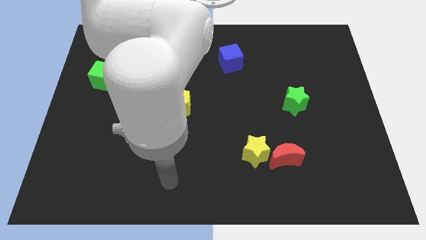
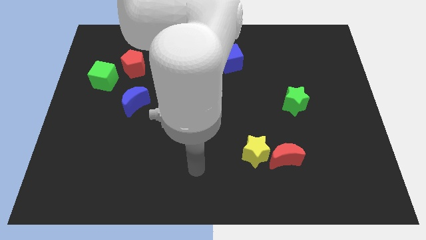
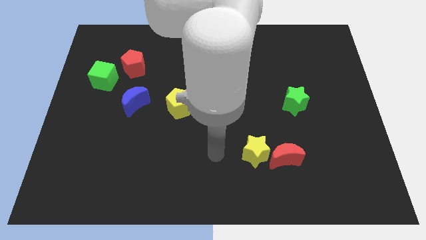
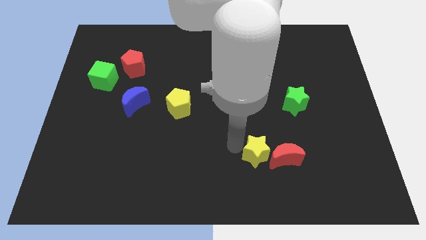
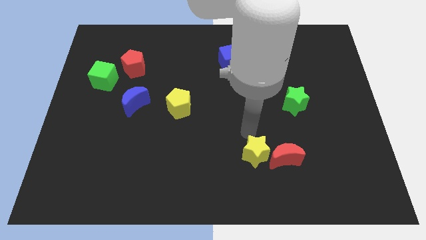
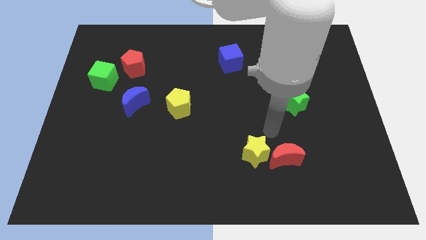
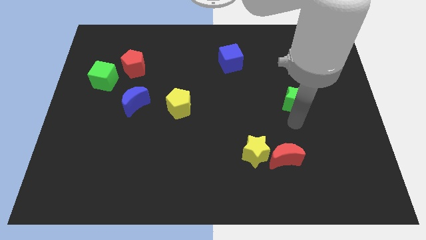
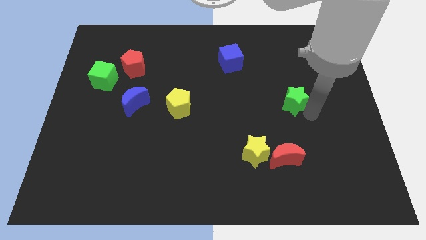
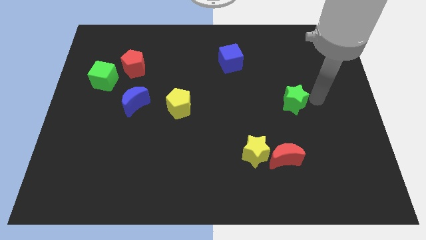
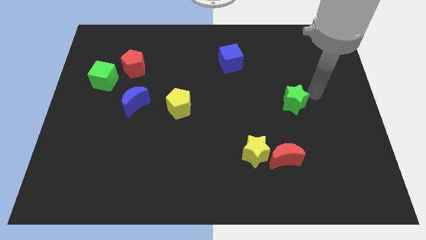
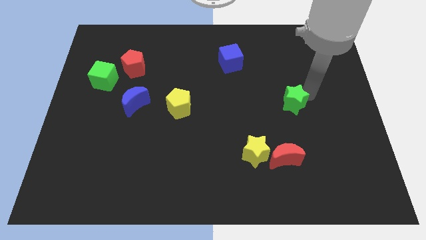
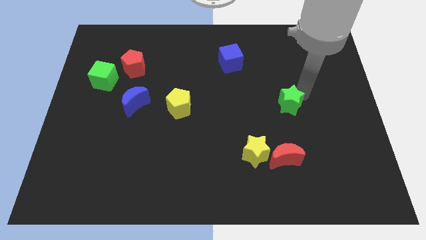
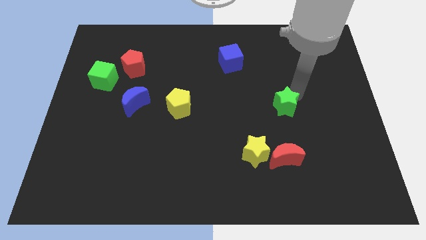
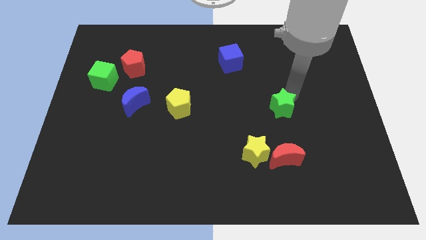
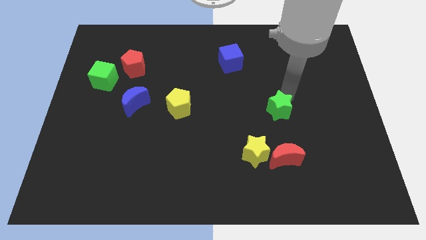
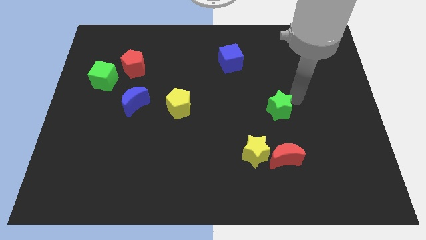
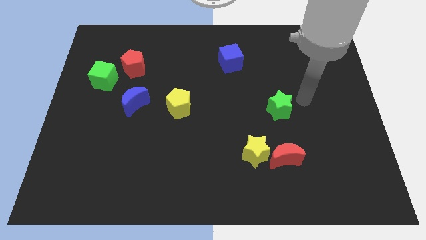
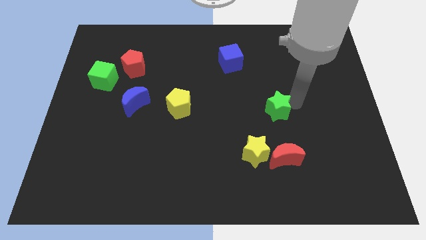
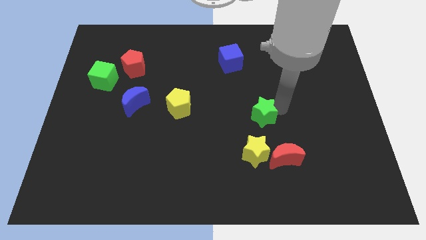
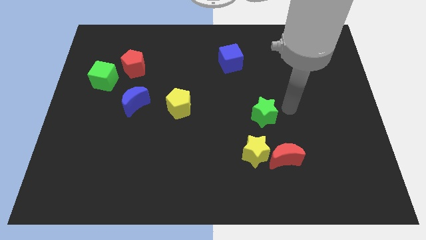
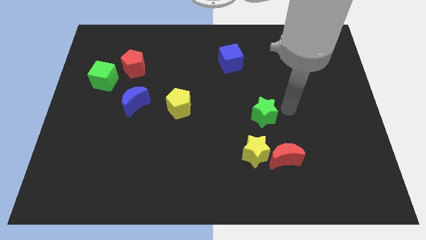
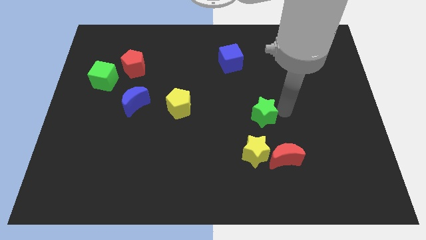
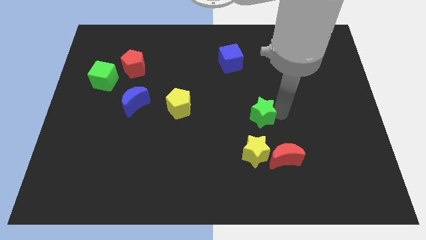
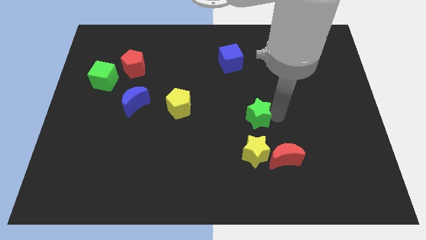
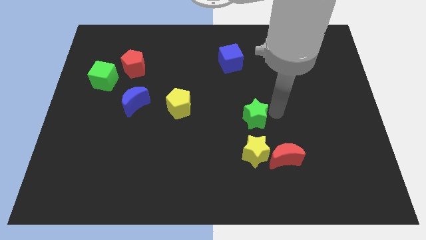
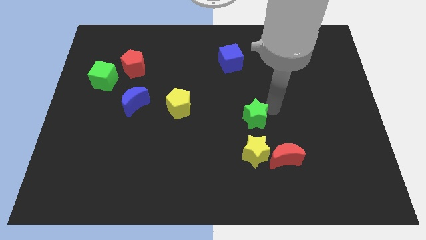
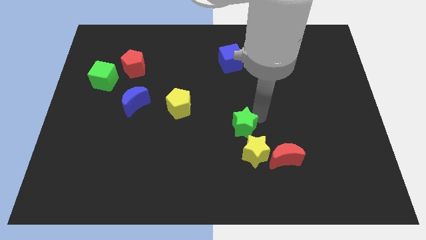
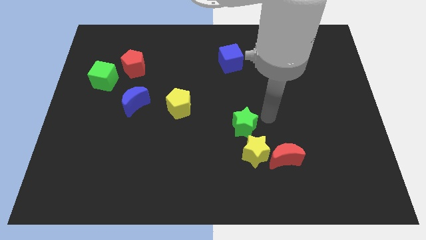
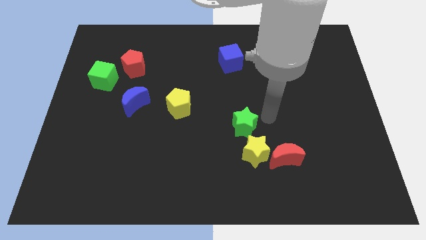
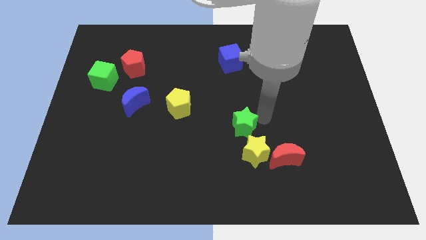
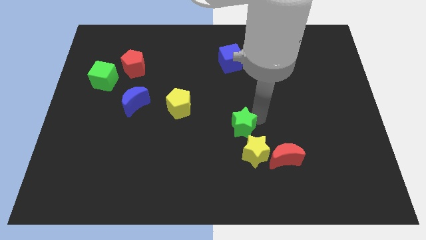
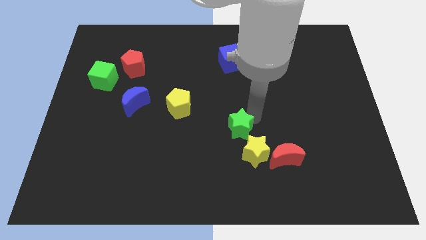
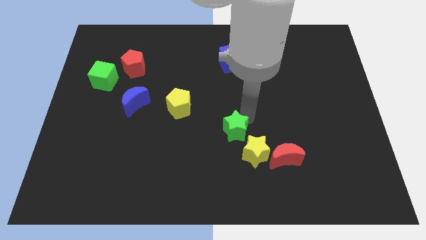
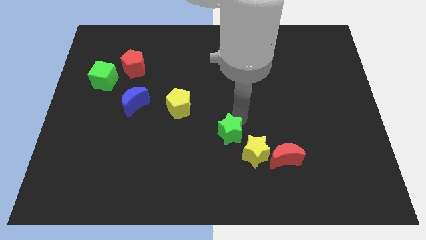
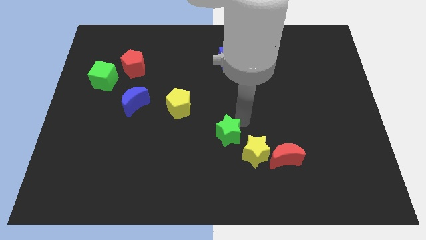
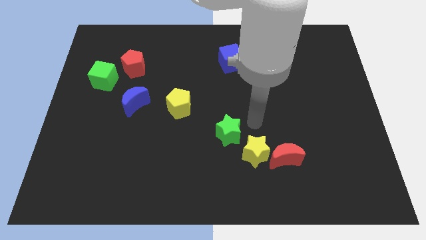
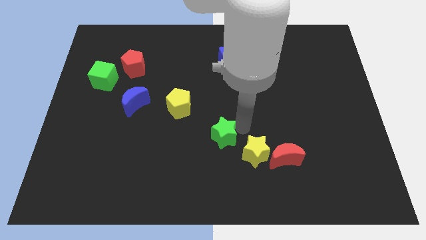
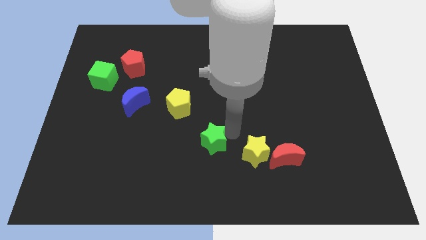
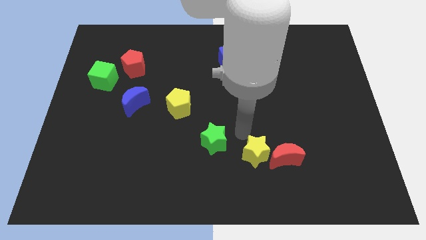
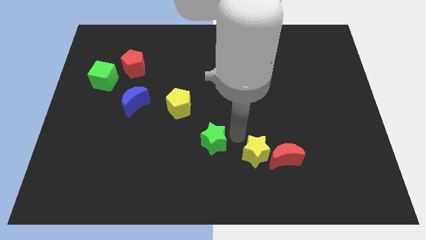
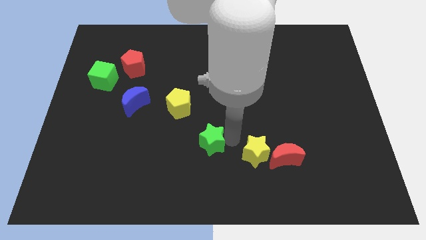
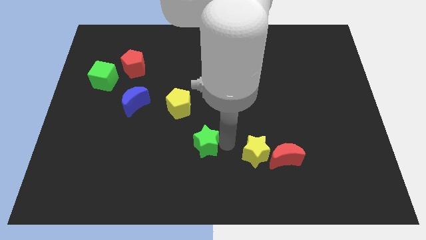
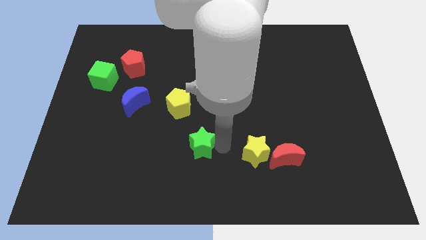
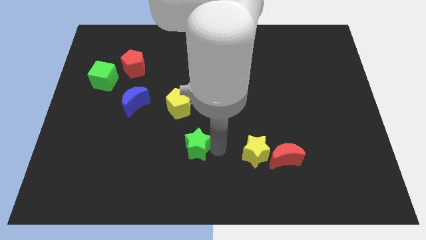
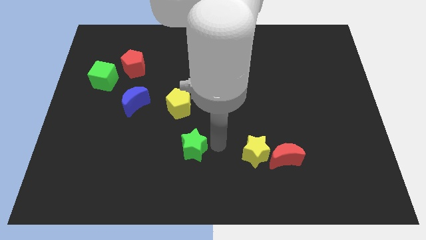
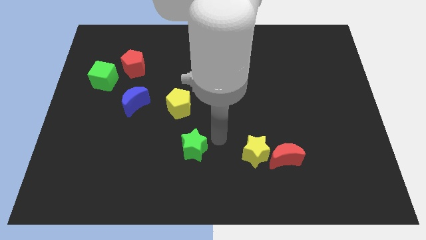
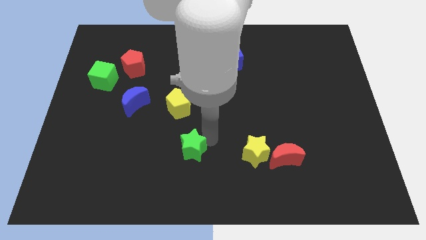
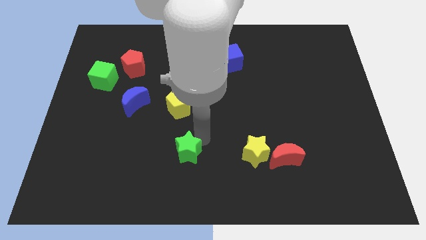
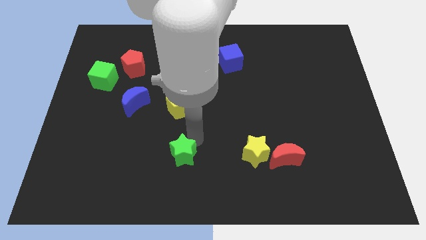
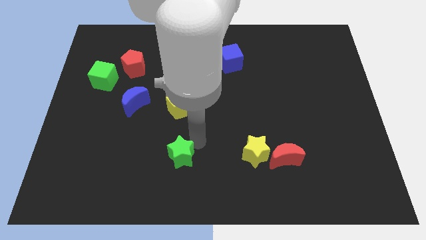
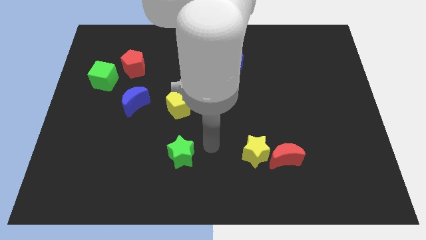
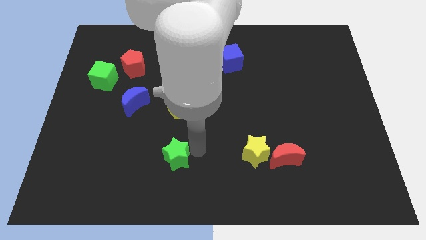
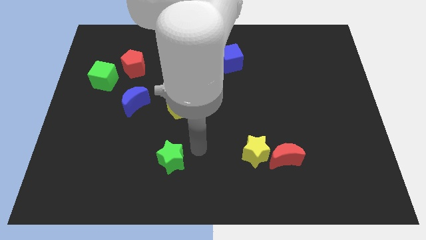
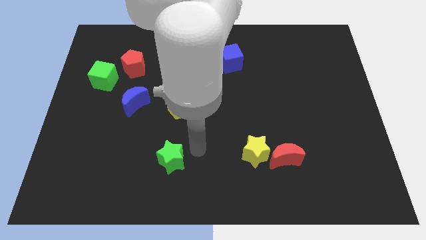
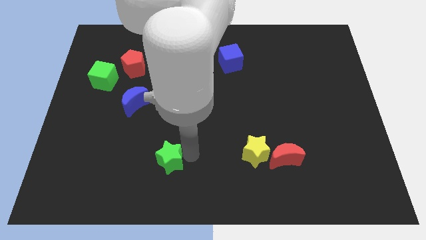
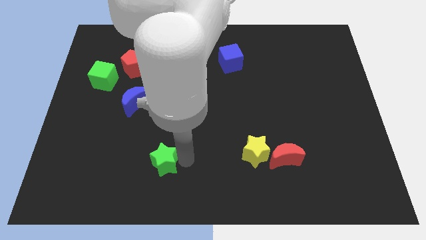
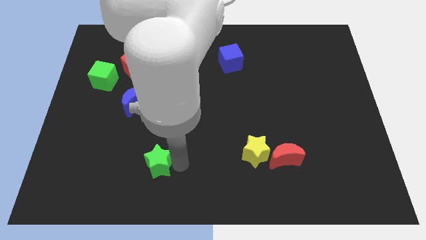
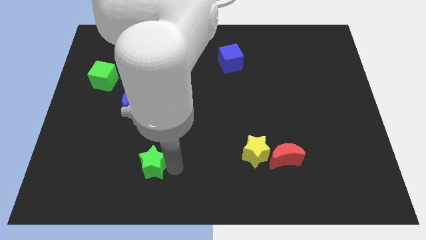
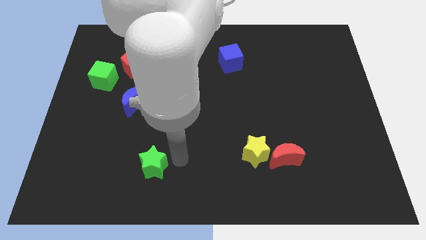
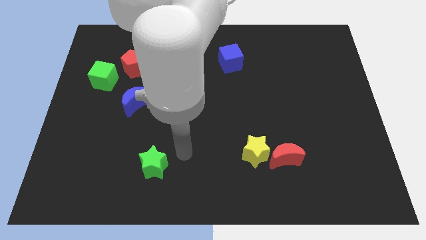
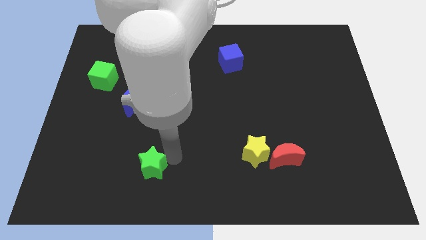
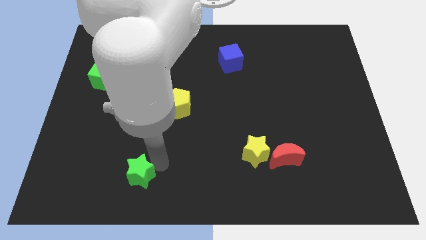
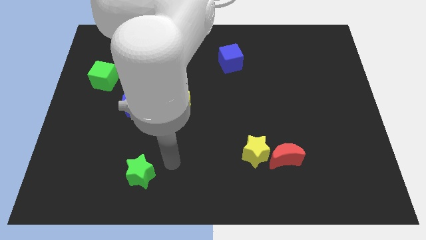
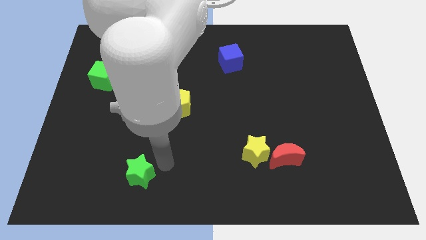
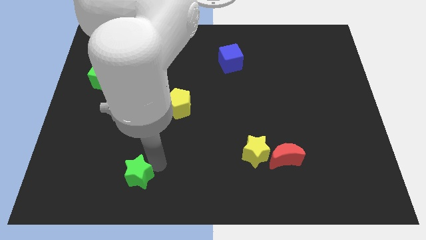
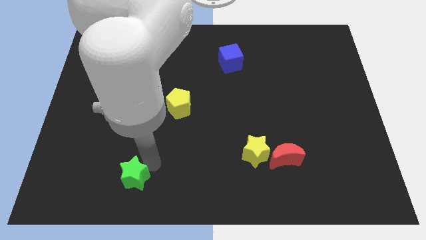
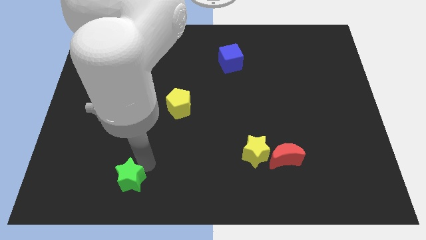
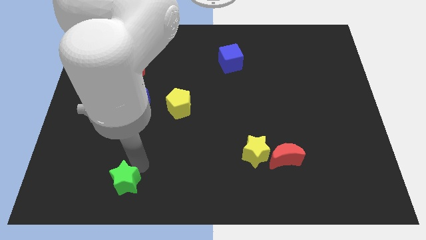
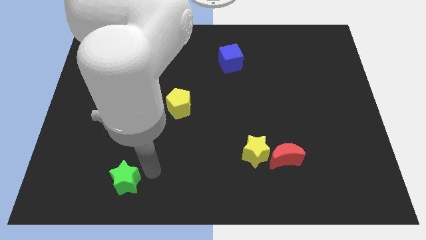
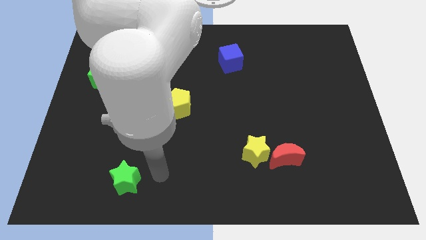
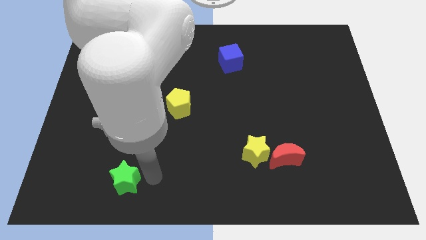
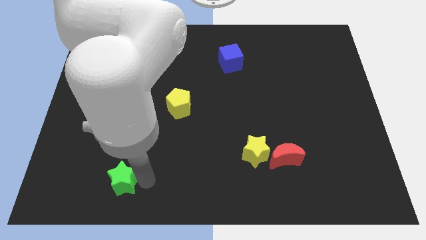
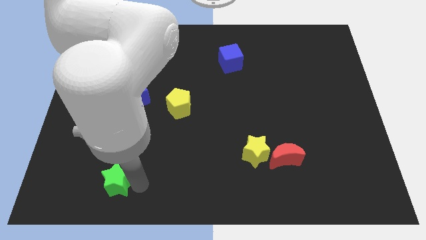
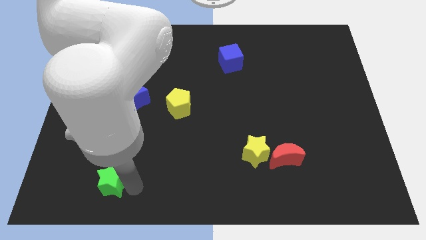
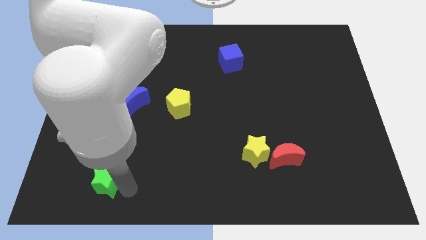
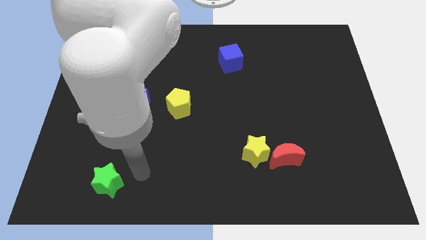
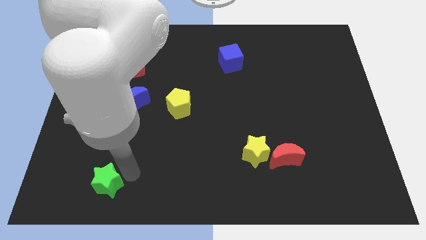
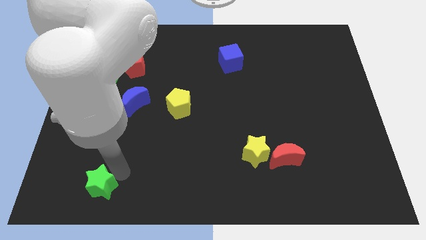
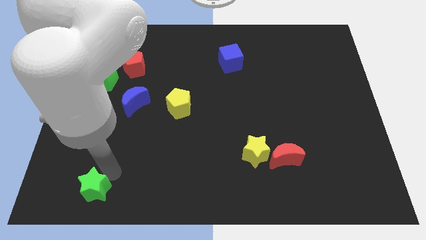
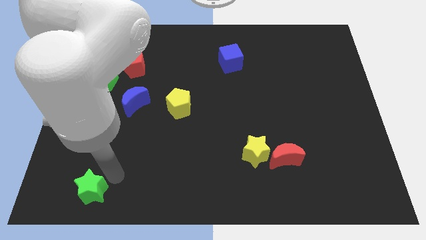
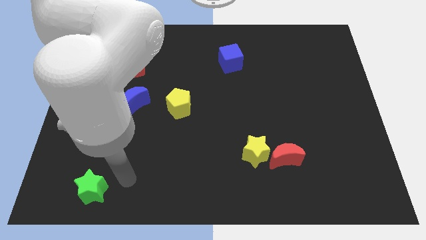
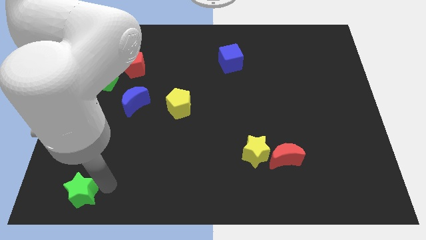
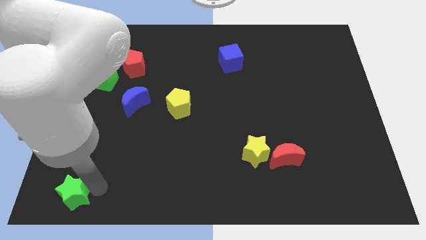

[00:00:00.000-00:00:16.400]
move the green star to the bottom left
